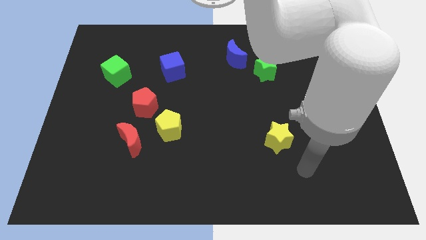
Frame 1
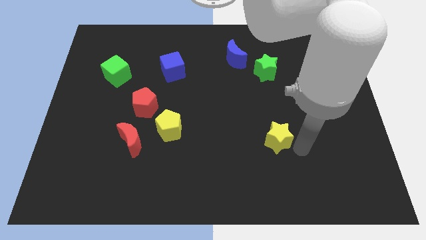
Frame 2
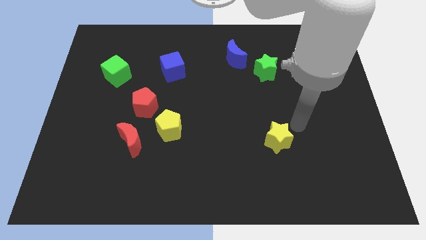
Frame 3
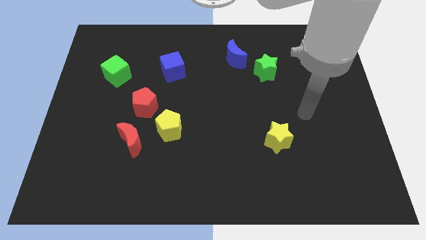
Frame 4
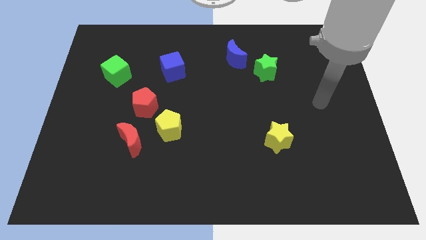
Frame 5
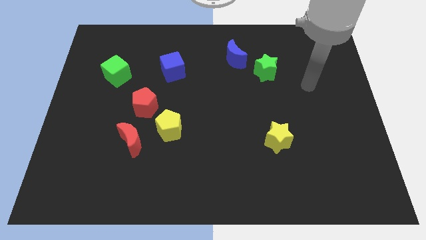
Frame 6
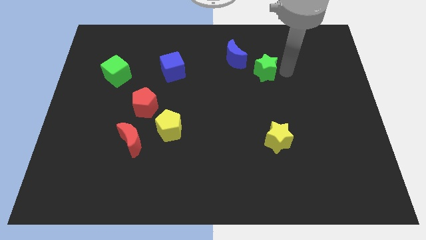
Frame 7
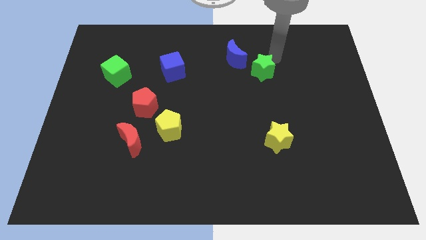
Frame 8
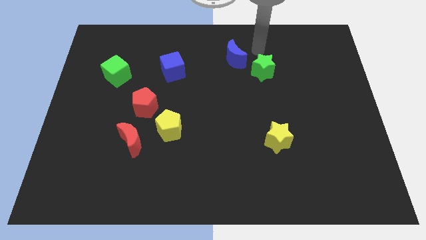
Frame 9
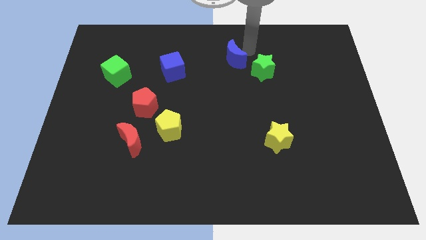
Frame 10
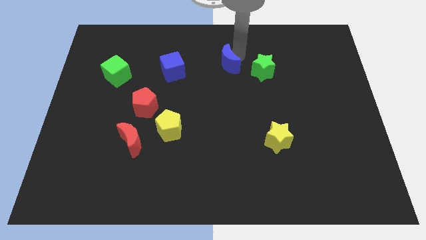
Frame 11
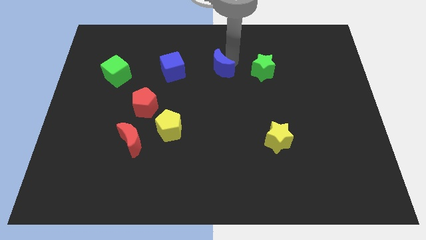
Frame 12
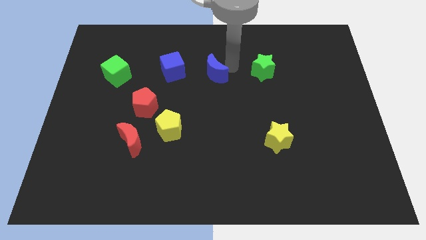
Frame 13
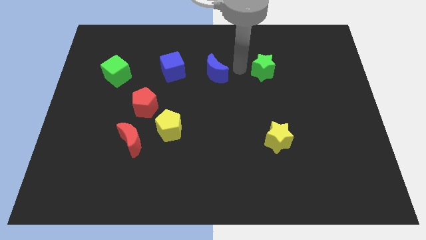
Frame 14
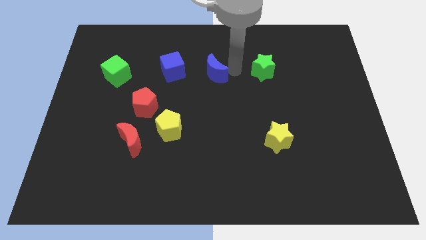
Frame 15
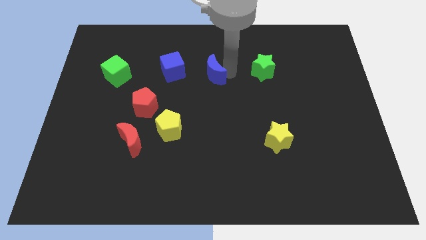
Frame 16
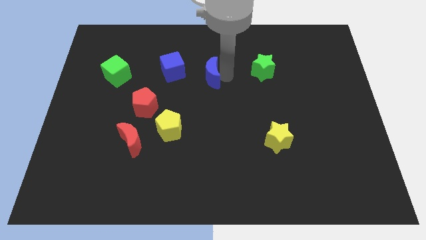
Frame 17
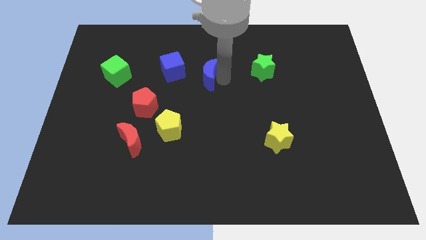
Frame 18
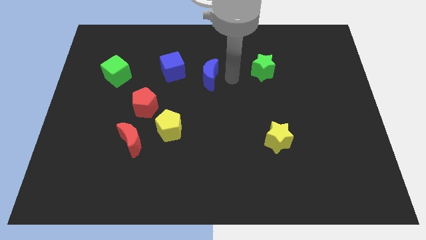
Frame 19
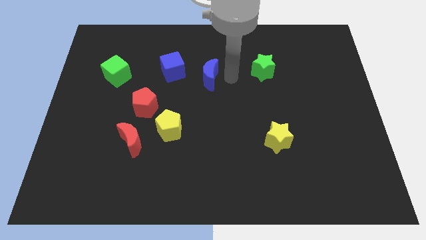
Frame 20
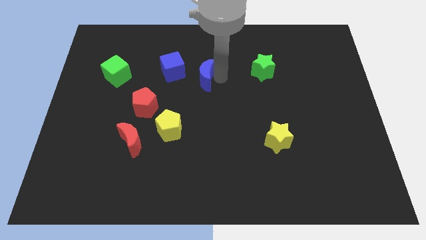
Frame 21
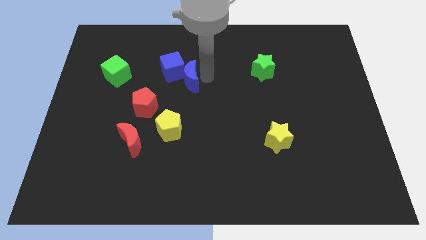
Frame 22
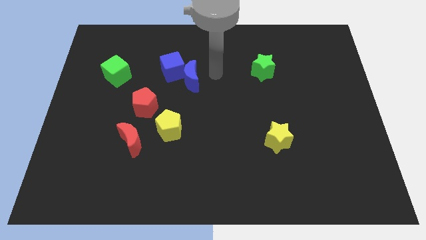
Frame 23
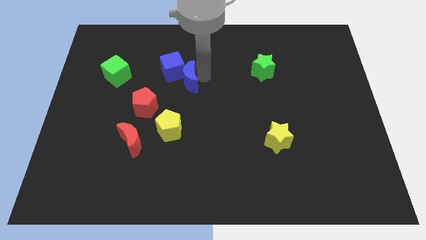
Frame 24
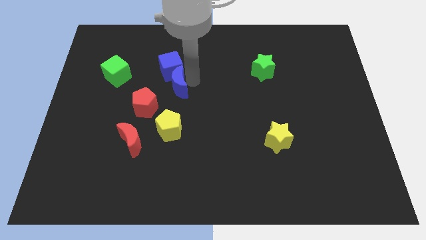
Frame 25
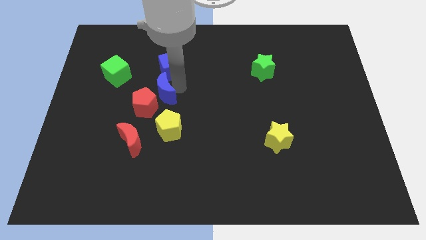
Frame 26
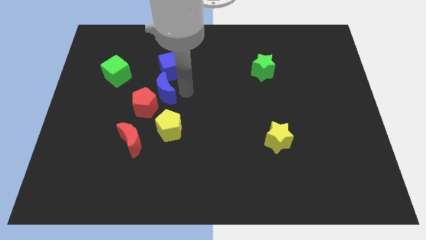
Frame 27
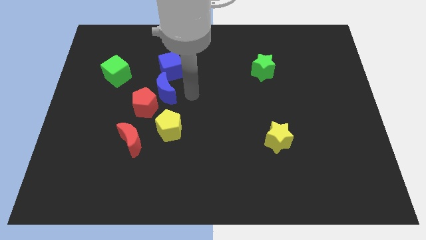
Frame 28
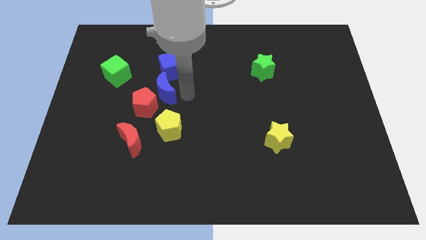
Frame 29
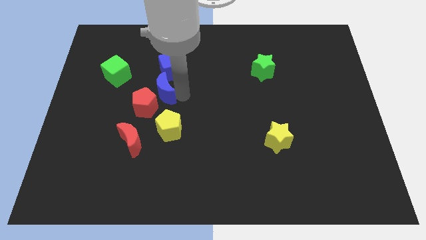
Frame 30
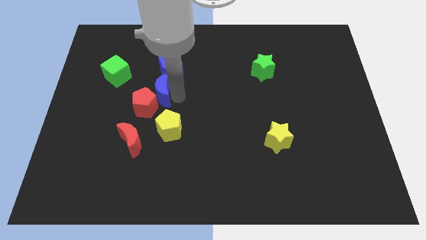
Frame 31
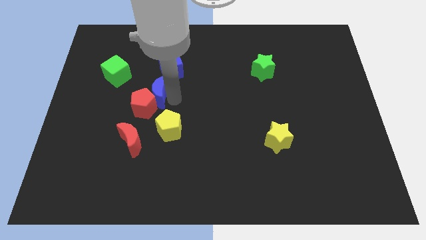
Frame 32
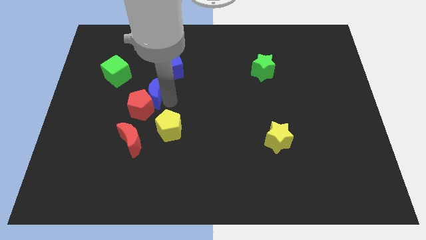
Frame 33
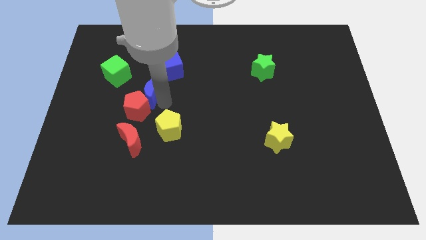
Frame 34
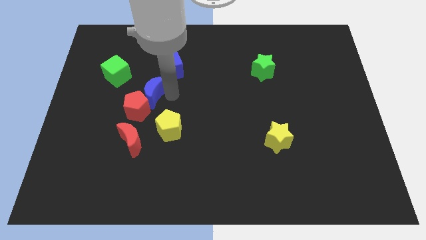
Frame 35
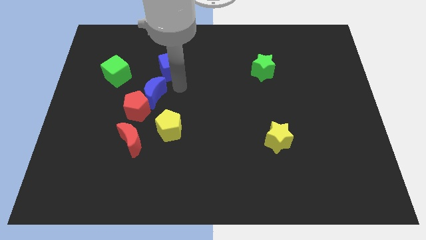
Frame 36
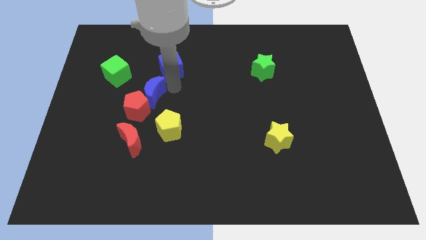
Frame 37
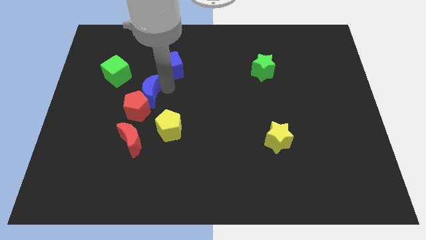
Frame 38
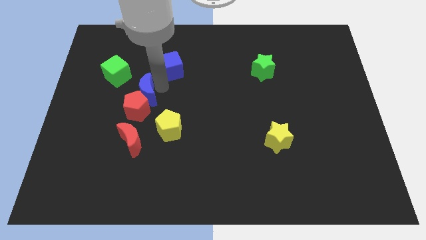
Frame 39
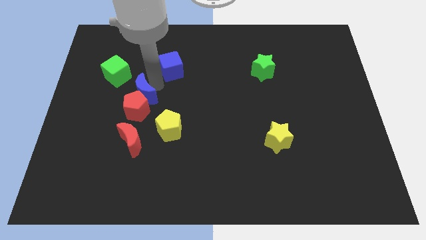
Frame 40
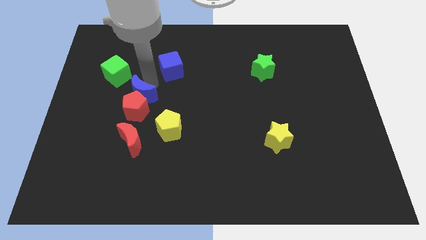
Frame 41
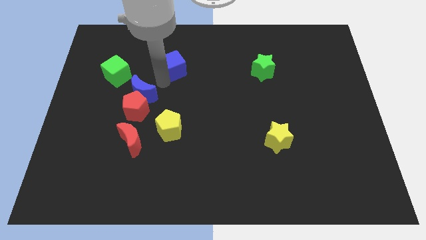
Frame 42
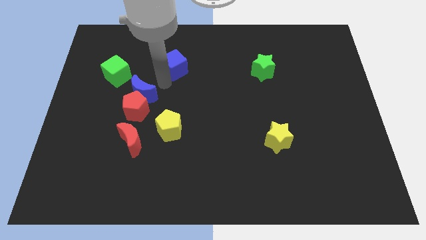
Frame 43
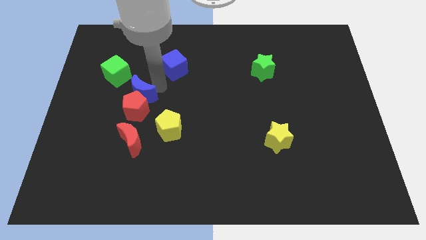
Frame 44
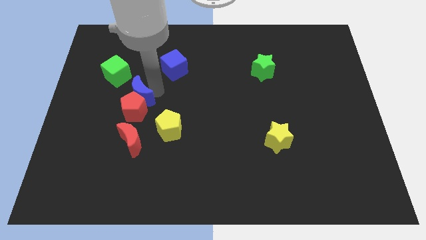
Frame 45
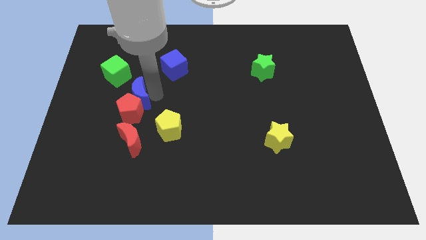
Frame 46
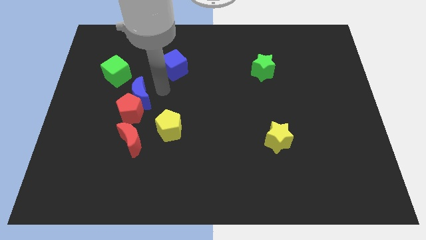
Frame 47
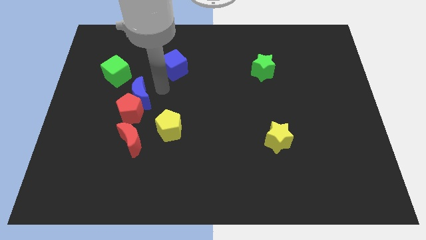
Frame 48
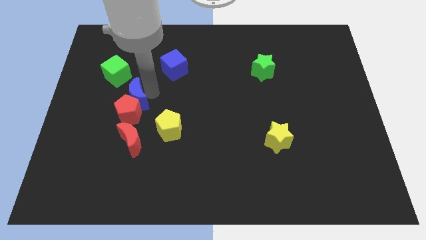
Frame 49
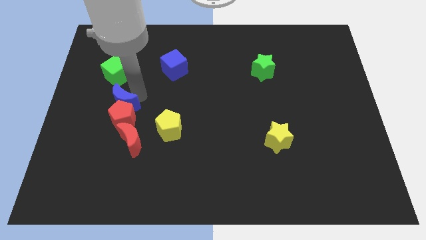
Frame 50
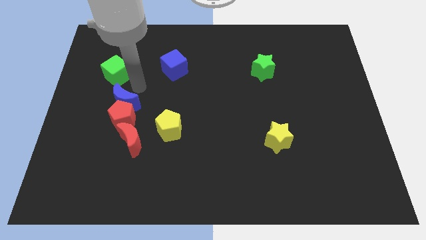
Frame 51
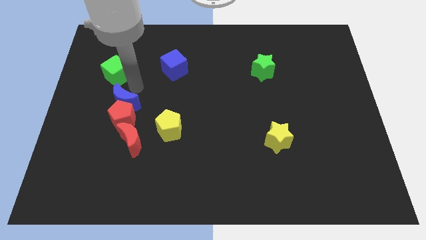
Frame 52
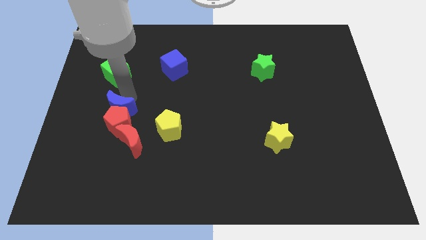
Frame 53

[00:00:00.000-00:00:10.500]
slide the blue moon diagonally up and to the left of the red moon

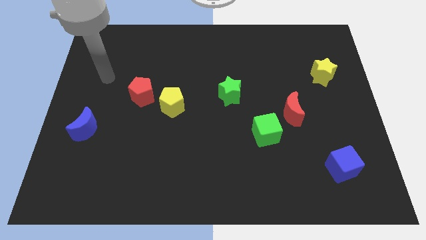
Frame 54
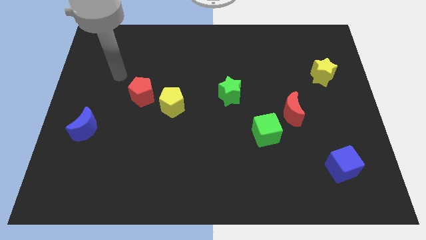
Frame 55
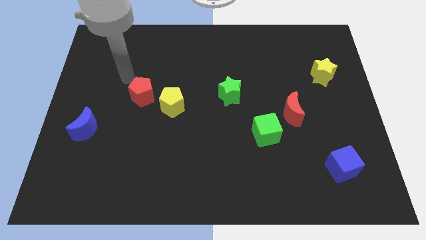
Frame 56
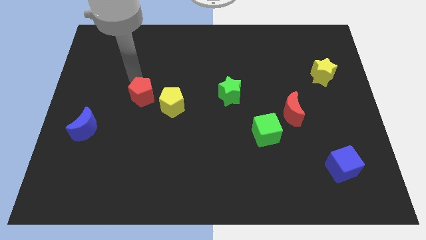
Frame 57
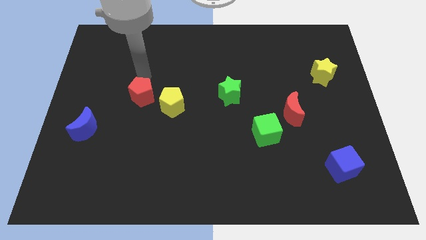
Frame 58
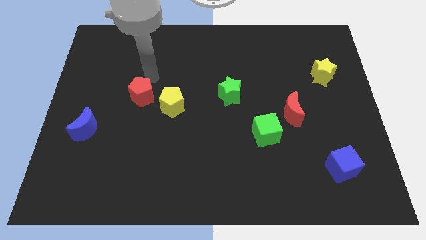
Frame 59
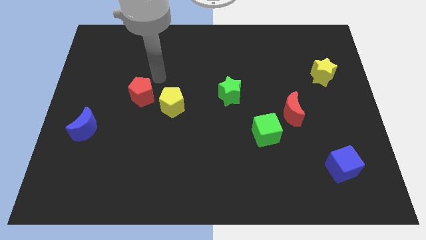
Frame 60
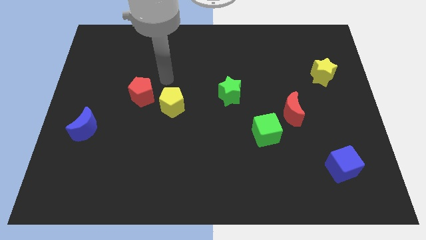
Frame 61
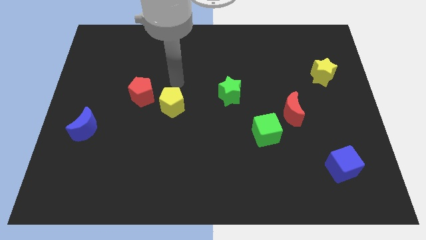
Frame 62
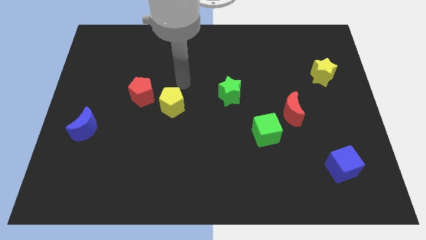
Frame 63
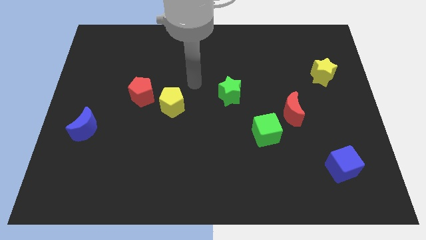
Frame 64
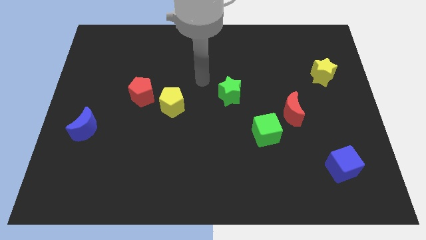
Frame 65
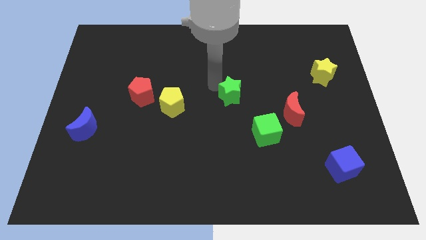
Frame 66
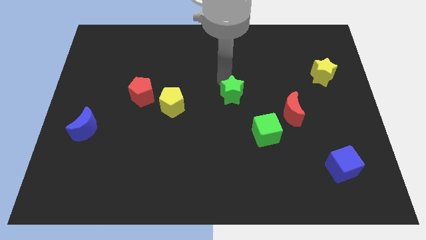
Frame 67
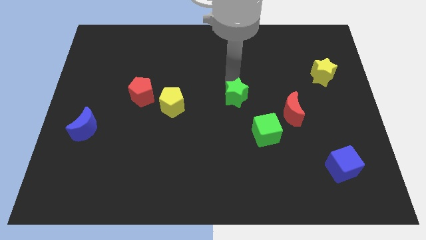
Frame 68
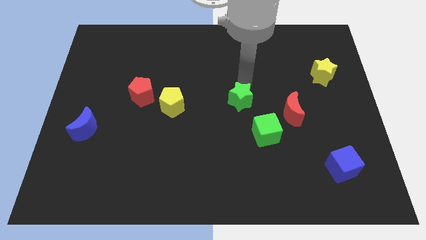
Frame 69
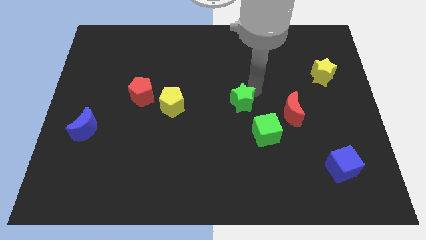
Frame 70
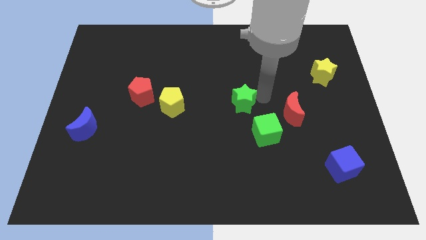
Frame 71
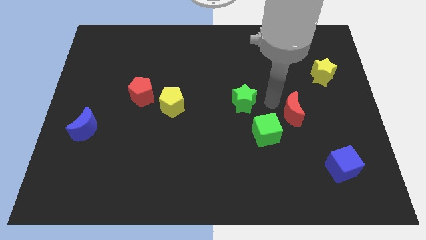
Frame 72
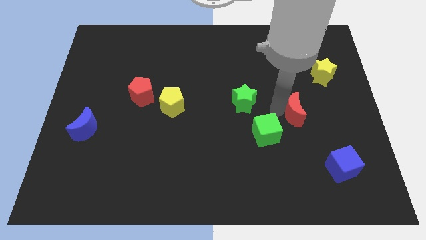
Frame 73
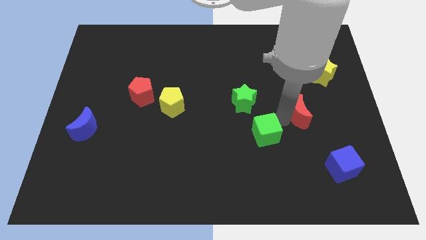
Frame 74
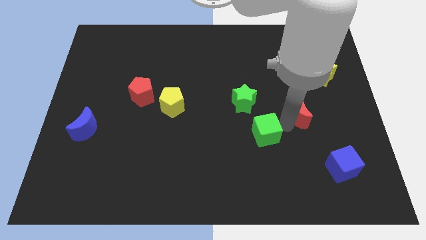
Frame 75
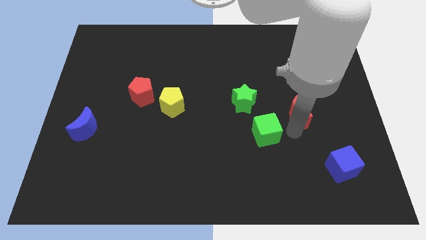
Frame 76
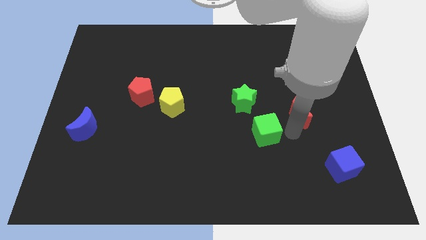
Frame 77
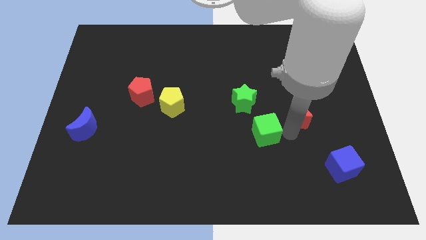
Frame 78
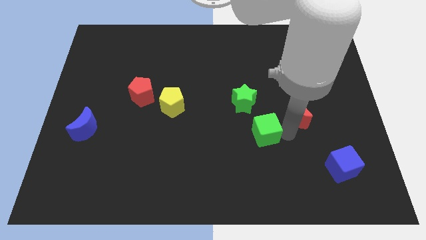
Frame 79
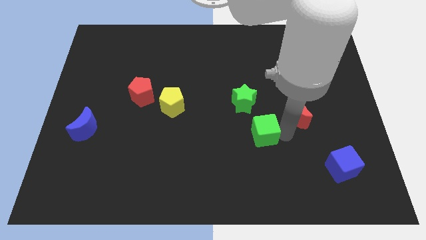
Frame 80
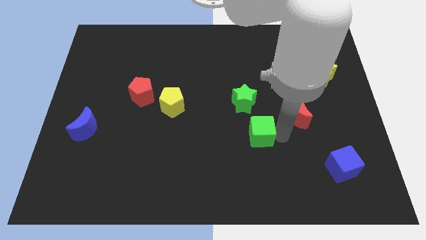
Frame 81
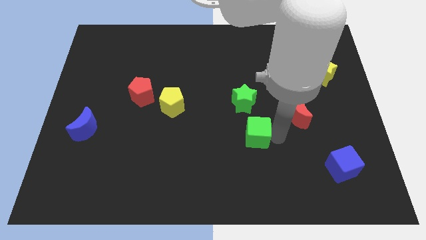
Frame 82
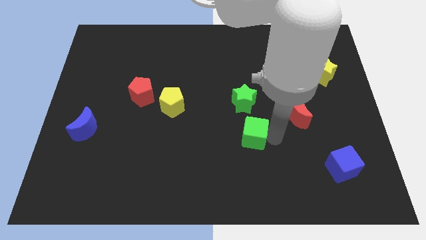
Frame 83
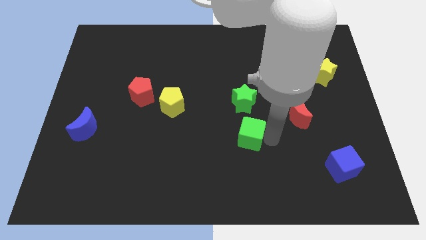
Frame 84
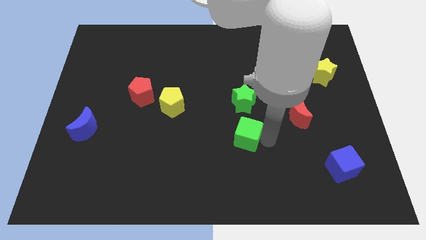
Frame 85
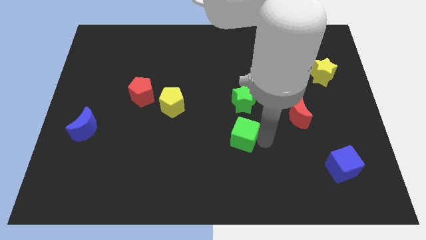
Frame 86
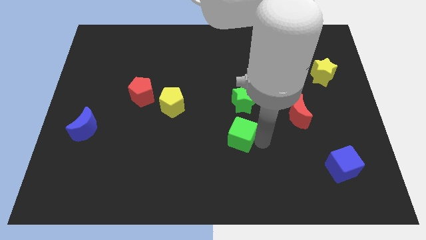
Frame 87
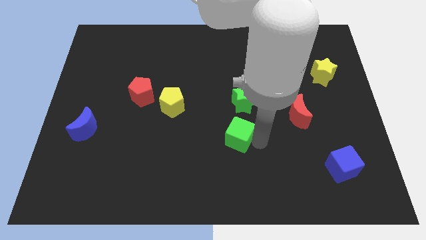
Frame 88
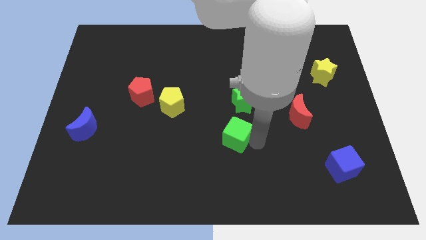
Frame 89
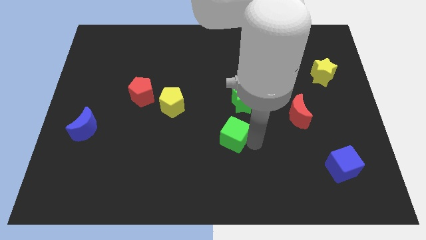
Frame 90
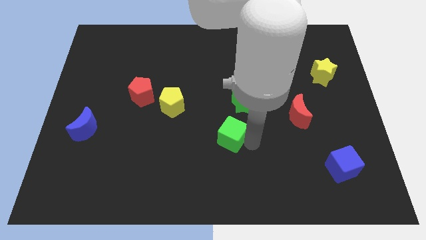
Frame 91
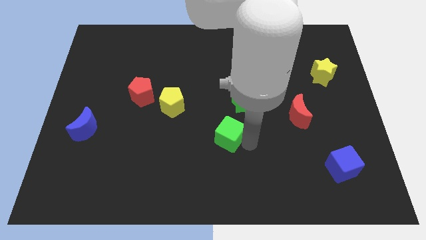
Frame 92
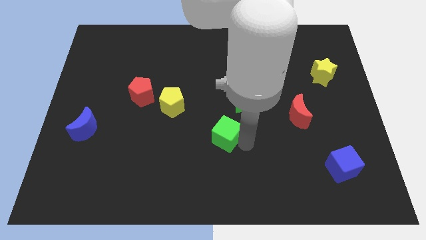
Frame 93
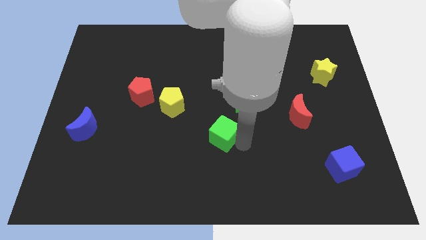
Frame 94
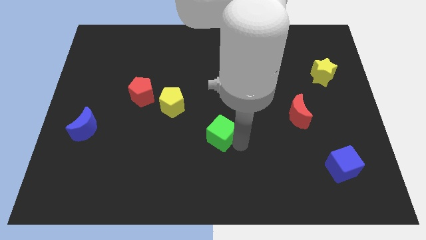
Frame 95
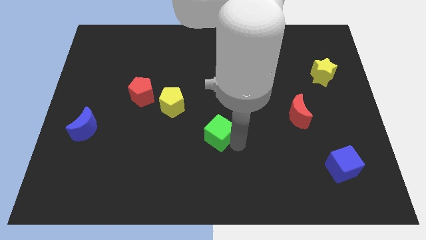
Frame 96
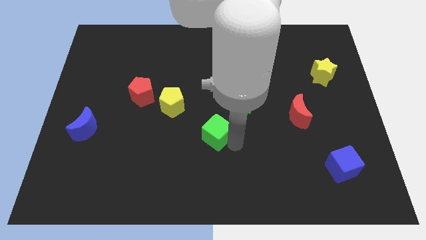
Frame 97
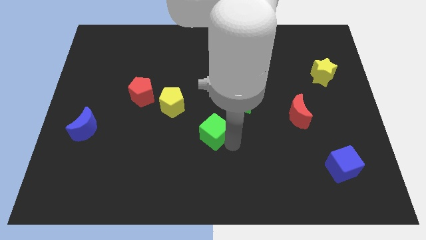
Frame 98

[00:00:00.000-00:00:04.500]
push the green cube diagonally down and to the right of the yellow pentagon
